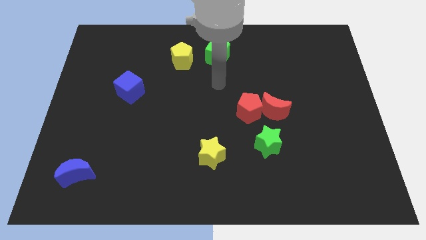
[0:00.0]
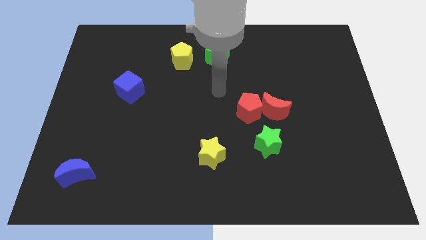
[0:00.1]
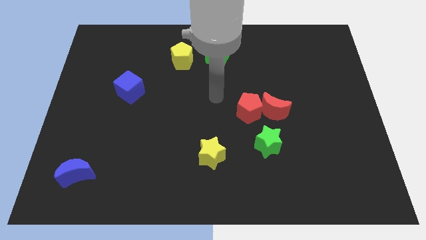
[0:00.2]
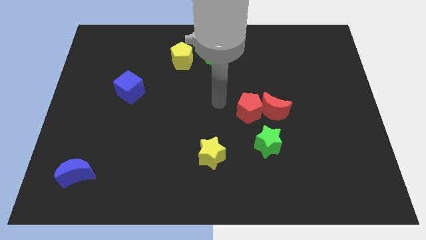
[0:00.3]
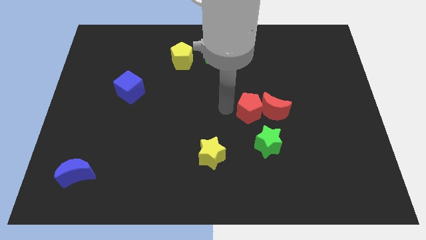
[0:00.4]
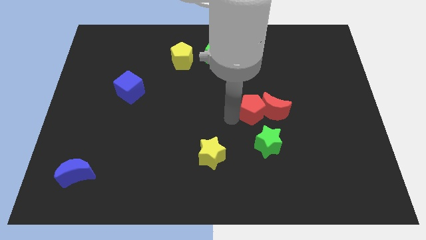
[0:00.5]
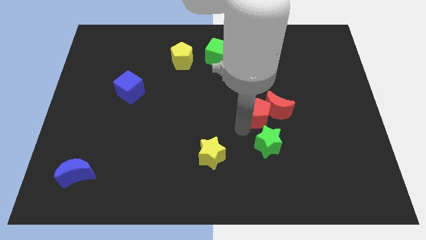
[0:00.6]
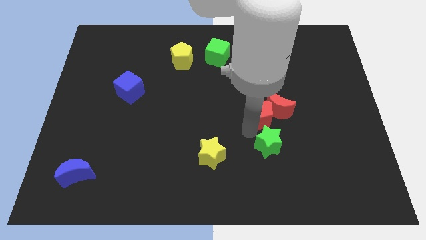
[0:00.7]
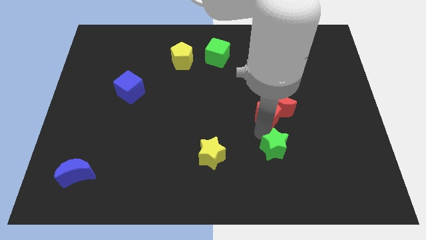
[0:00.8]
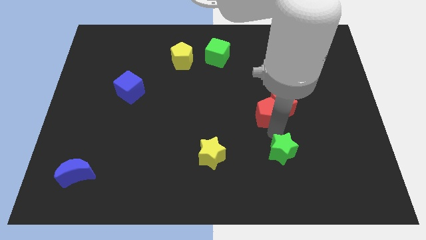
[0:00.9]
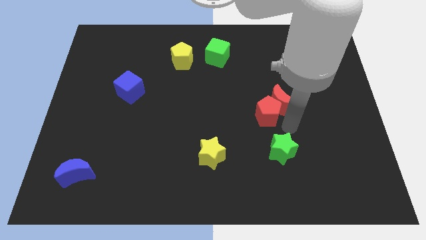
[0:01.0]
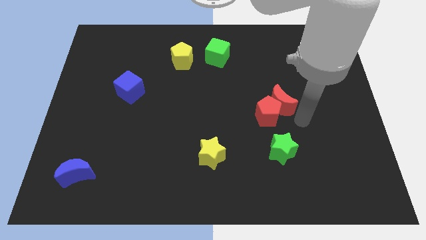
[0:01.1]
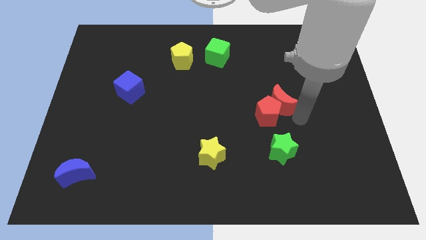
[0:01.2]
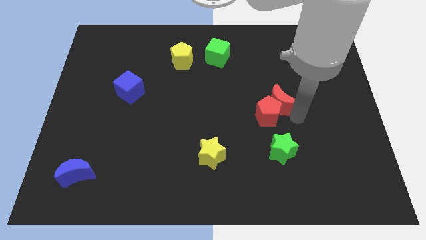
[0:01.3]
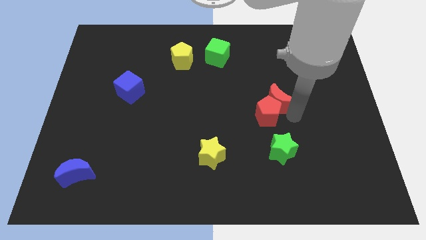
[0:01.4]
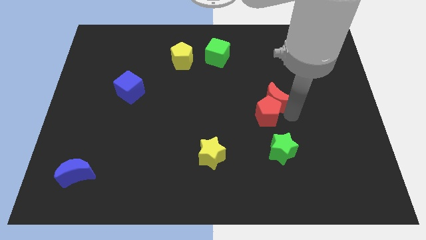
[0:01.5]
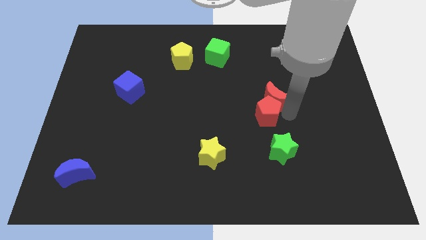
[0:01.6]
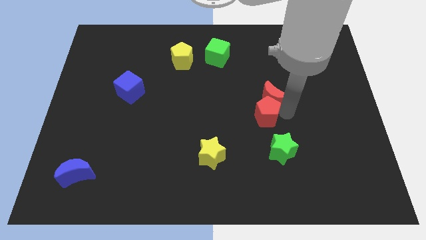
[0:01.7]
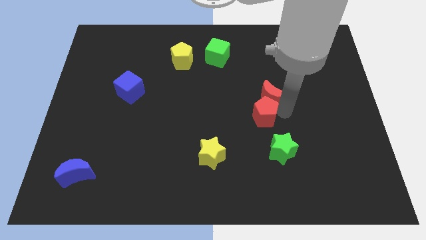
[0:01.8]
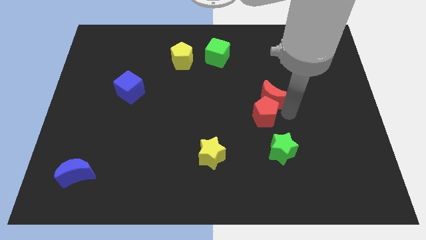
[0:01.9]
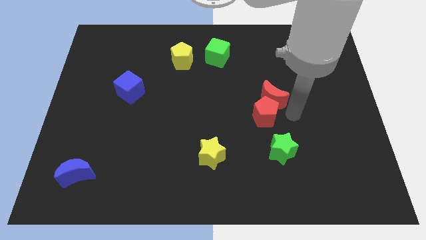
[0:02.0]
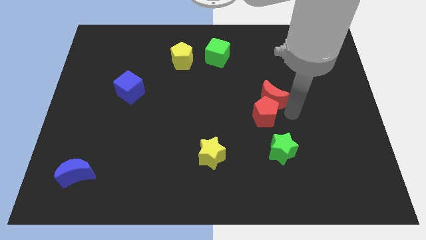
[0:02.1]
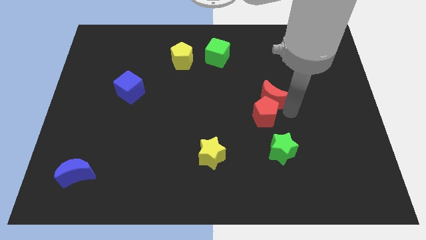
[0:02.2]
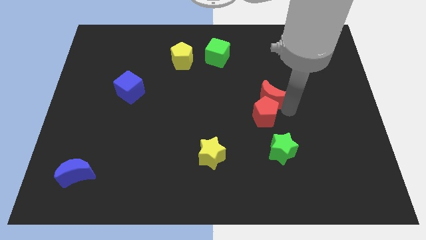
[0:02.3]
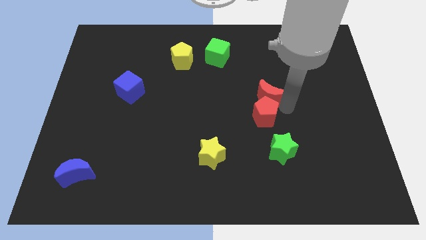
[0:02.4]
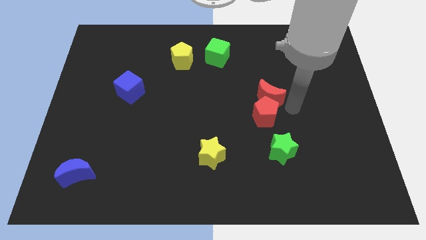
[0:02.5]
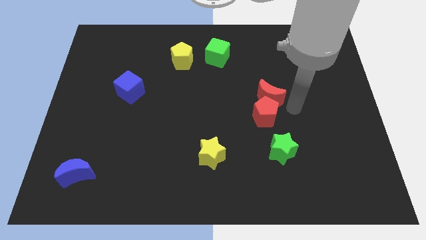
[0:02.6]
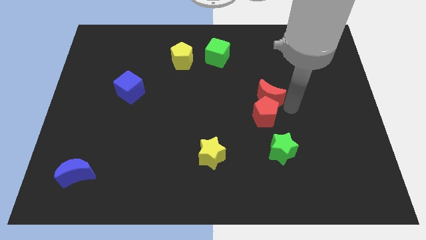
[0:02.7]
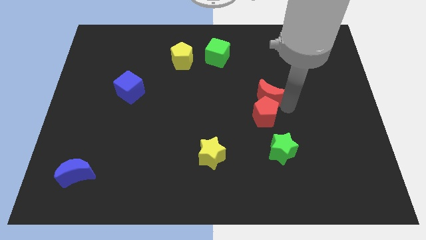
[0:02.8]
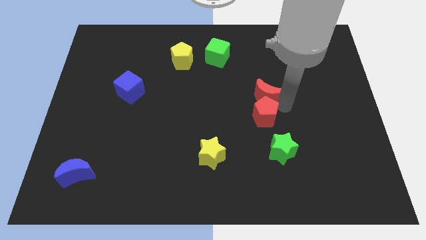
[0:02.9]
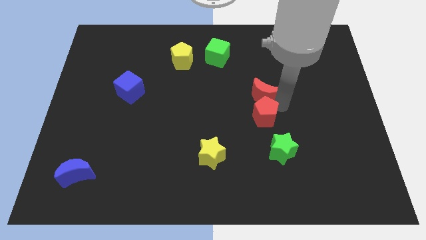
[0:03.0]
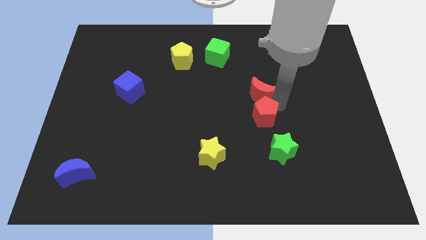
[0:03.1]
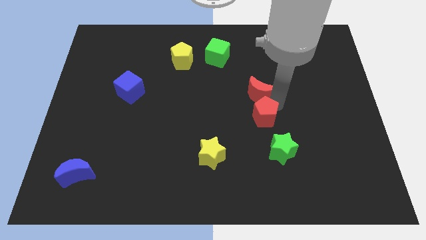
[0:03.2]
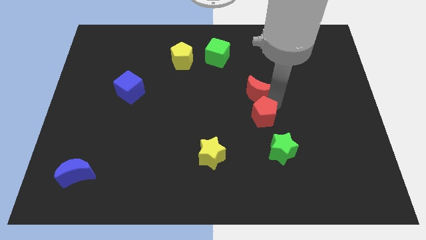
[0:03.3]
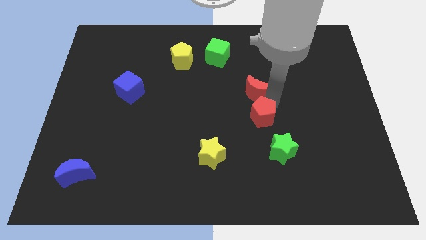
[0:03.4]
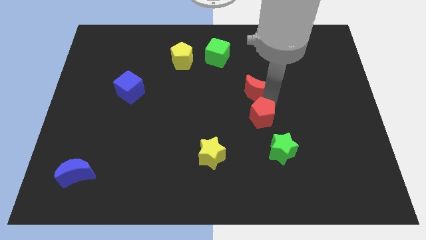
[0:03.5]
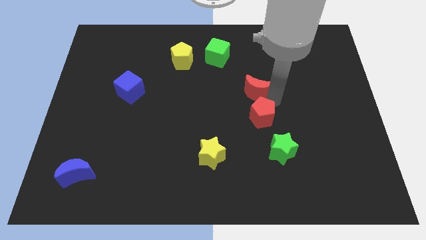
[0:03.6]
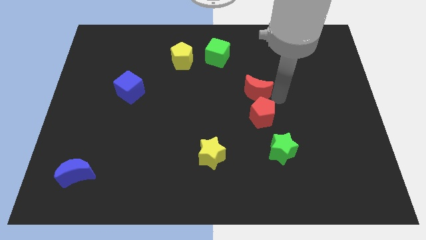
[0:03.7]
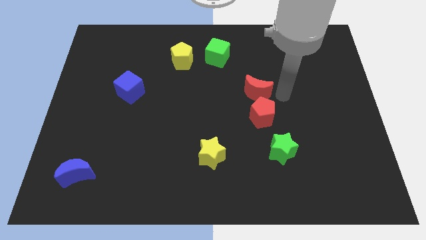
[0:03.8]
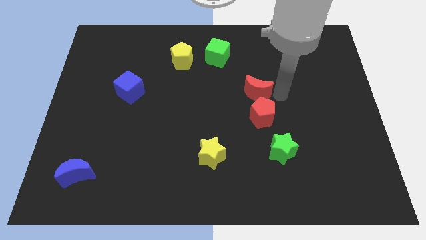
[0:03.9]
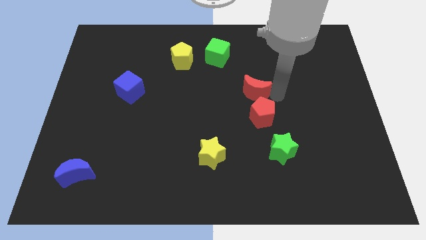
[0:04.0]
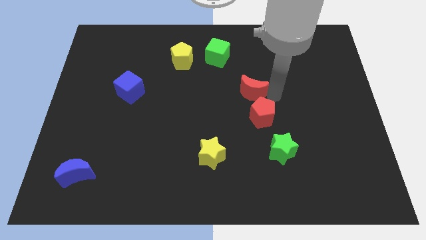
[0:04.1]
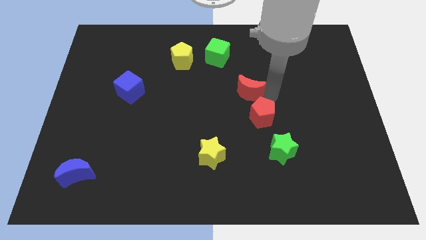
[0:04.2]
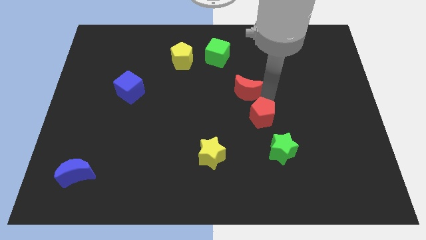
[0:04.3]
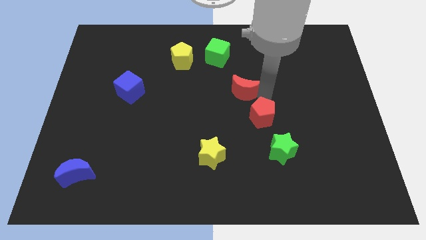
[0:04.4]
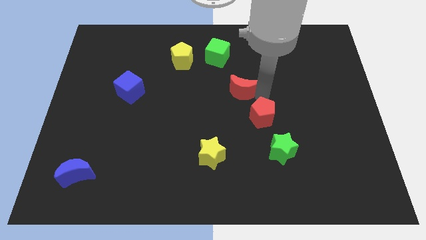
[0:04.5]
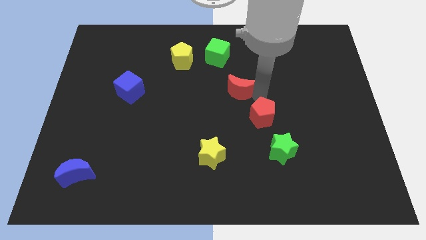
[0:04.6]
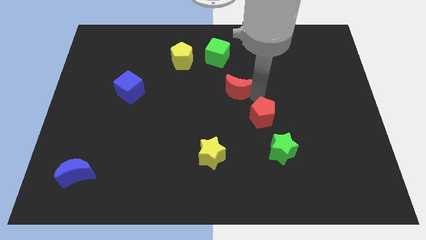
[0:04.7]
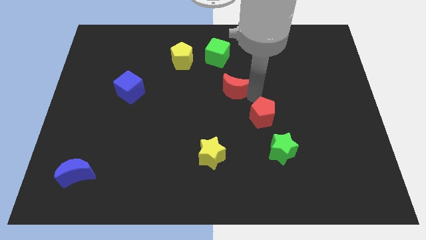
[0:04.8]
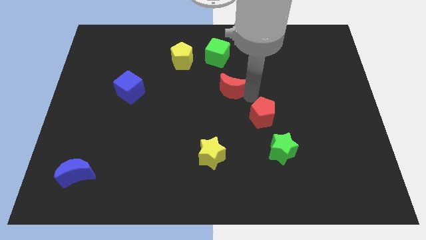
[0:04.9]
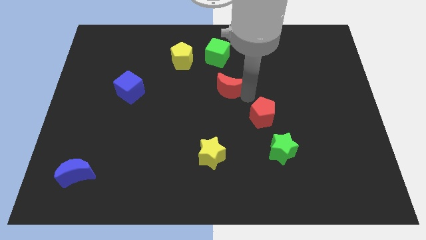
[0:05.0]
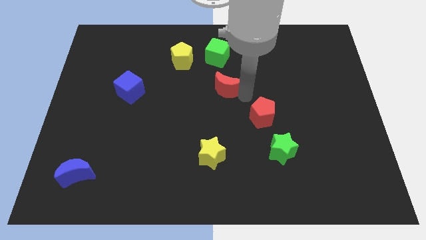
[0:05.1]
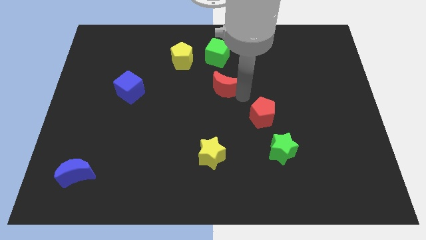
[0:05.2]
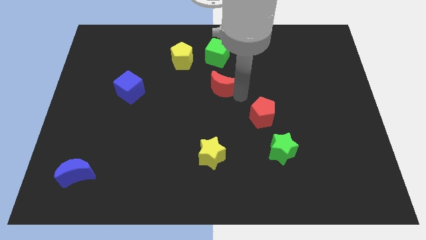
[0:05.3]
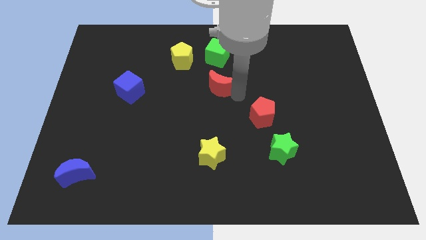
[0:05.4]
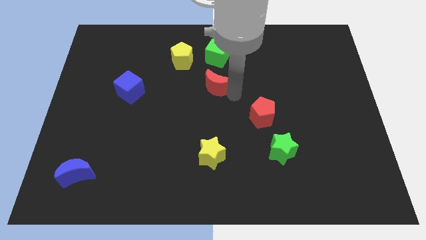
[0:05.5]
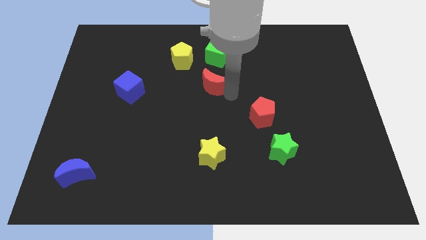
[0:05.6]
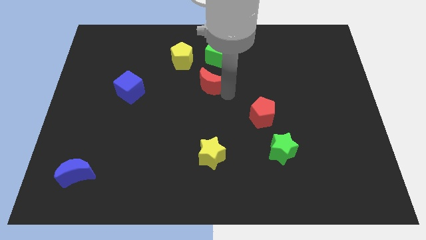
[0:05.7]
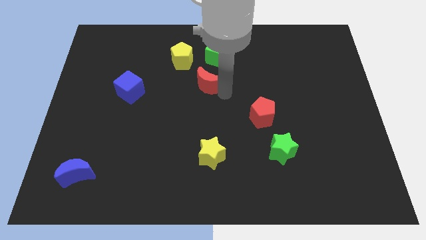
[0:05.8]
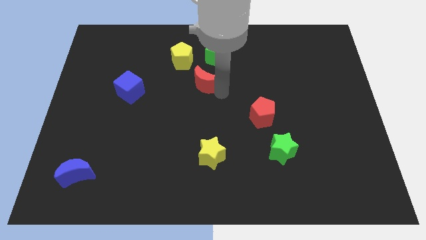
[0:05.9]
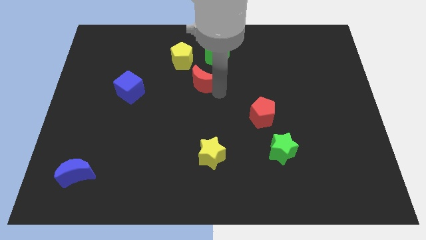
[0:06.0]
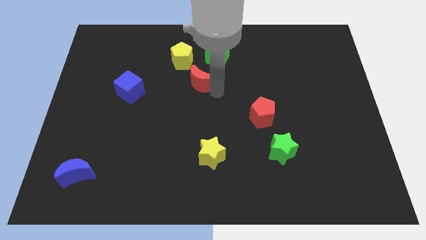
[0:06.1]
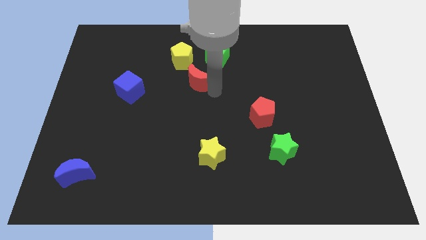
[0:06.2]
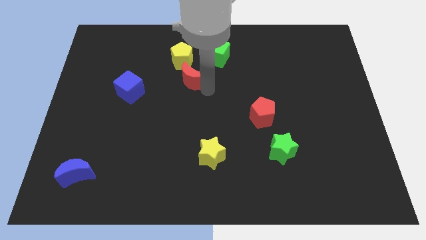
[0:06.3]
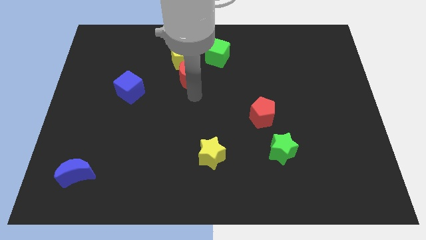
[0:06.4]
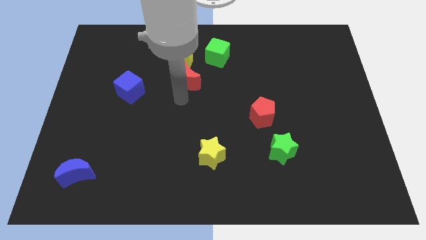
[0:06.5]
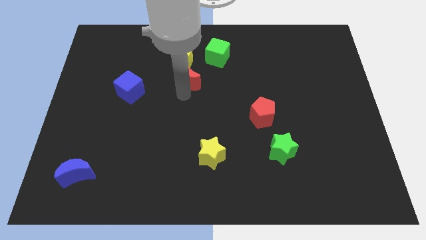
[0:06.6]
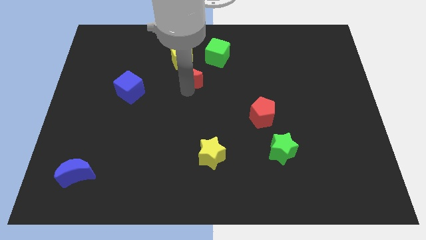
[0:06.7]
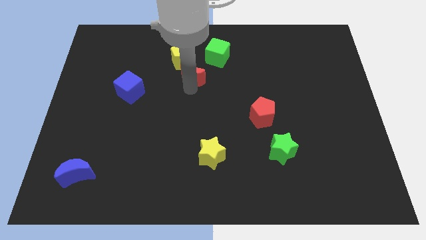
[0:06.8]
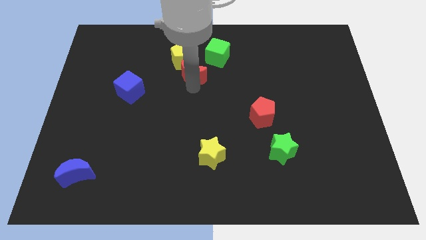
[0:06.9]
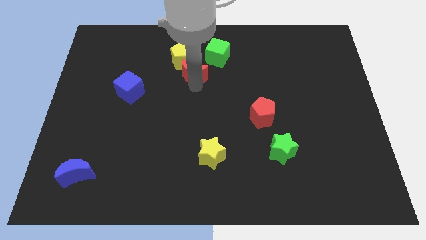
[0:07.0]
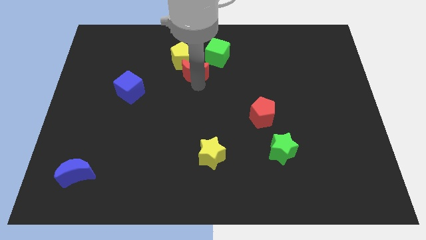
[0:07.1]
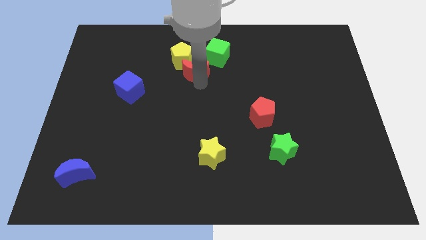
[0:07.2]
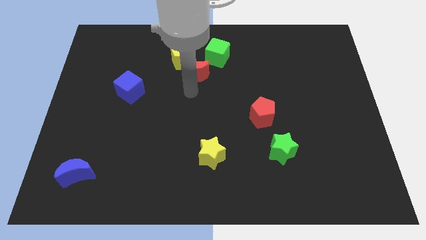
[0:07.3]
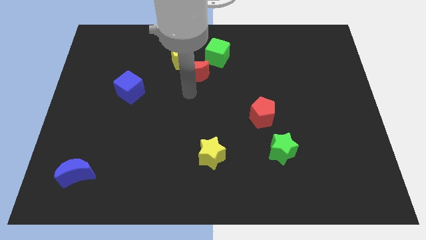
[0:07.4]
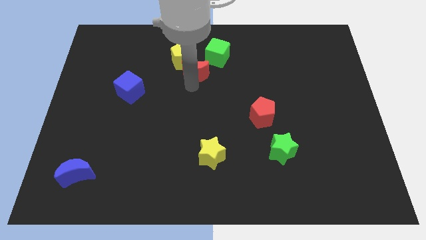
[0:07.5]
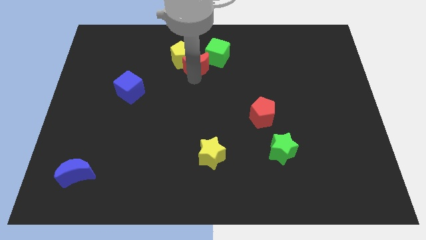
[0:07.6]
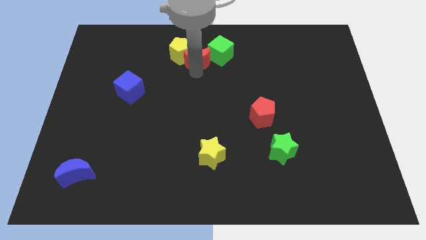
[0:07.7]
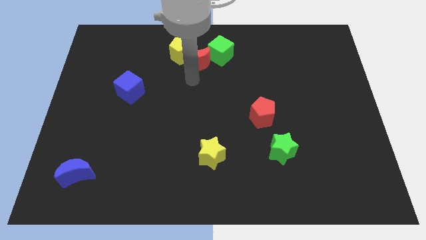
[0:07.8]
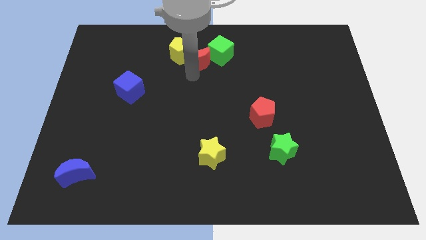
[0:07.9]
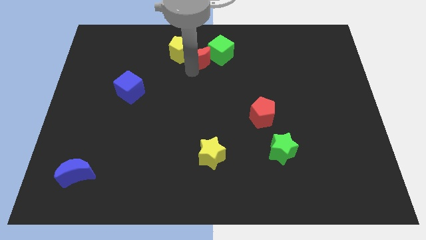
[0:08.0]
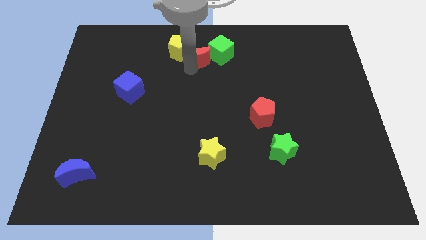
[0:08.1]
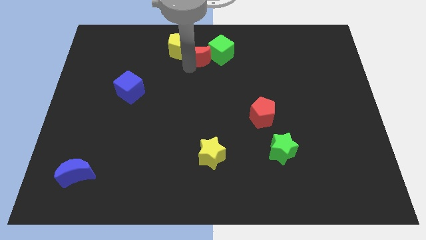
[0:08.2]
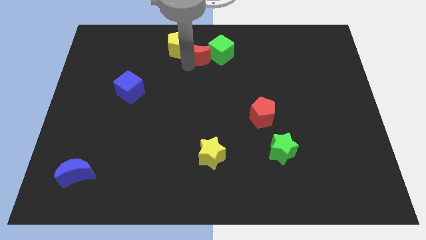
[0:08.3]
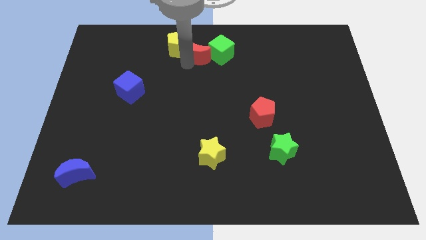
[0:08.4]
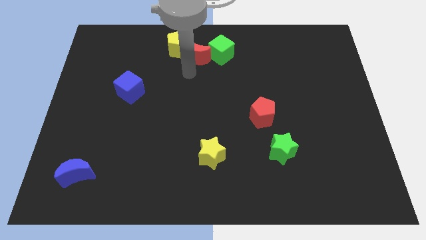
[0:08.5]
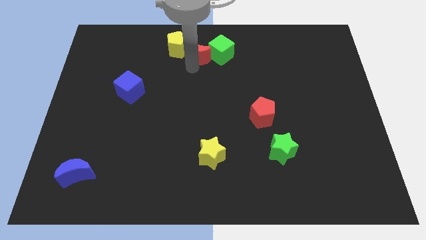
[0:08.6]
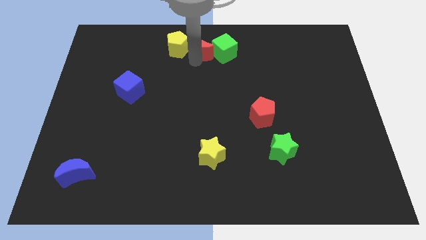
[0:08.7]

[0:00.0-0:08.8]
put the red moon to the top
